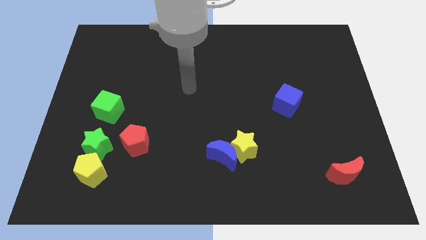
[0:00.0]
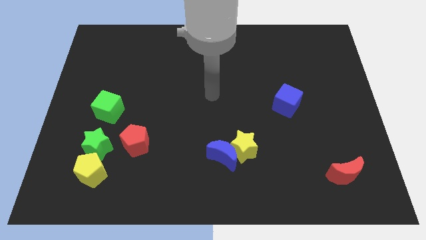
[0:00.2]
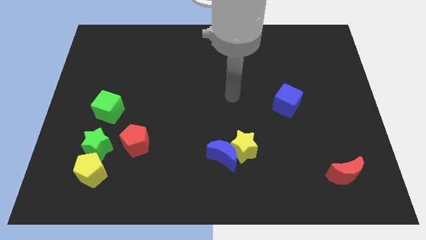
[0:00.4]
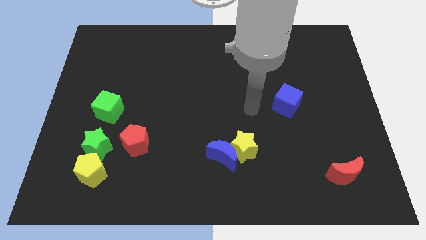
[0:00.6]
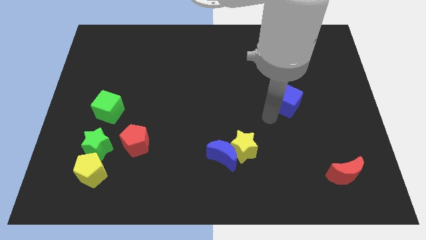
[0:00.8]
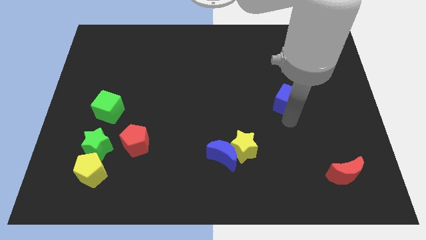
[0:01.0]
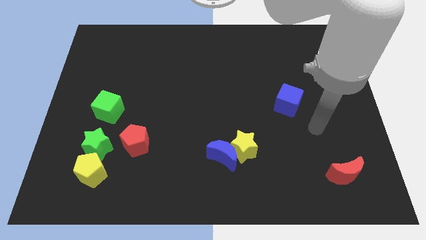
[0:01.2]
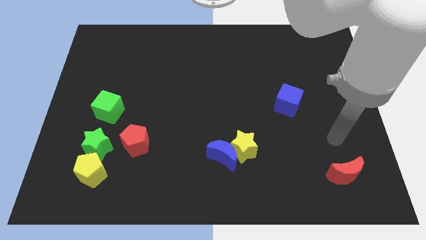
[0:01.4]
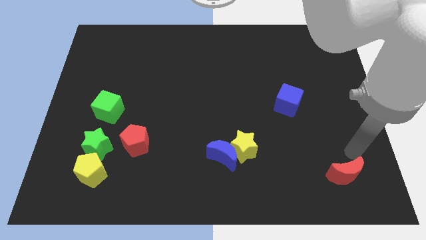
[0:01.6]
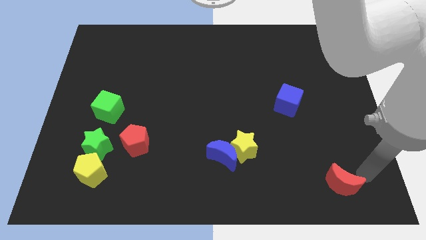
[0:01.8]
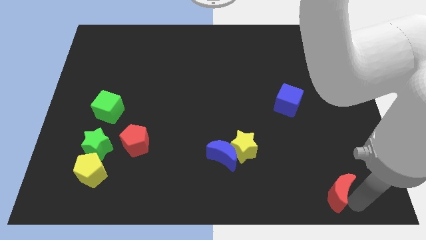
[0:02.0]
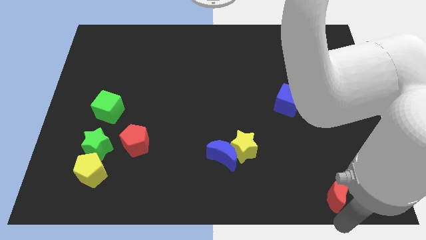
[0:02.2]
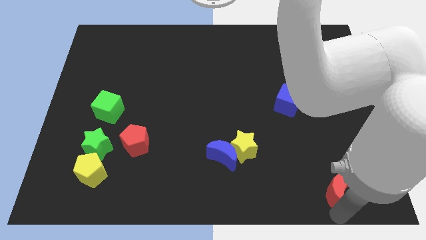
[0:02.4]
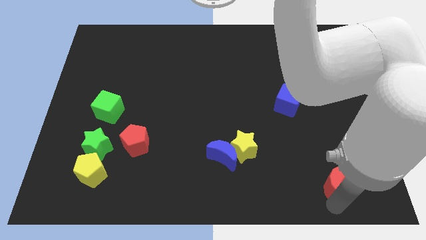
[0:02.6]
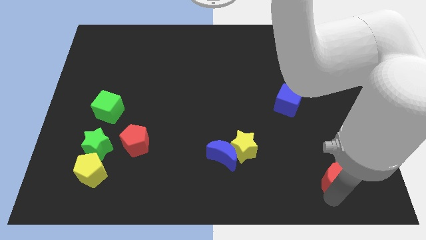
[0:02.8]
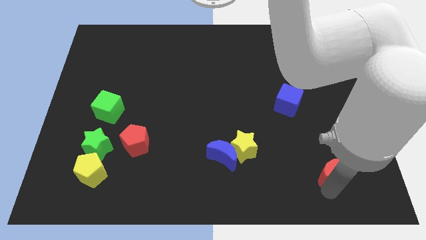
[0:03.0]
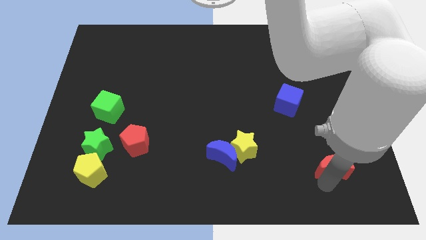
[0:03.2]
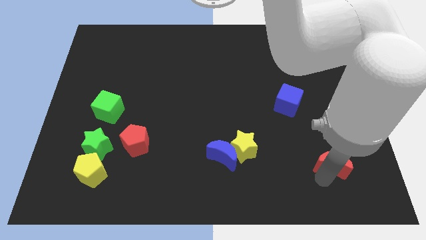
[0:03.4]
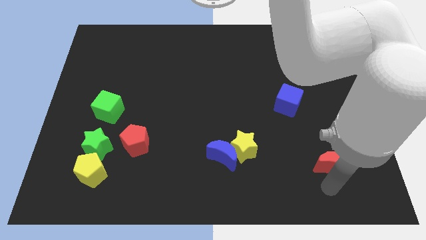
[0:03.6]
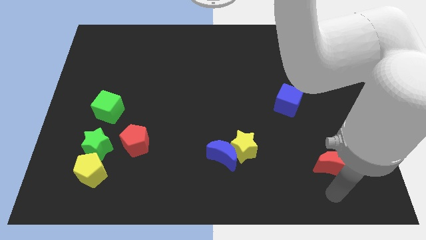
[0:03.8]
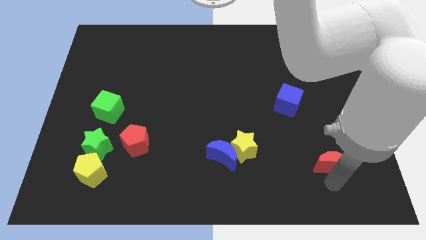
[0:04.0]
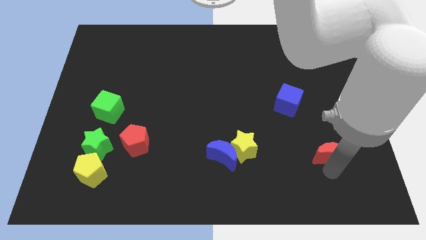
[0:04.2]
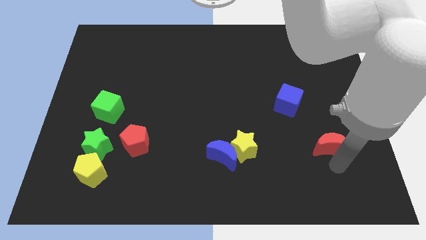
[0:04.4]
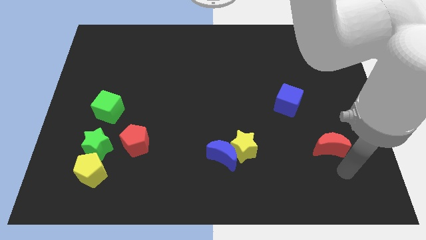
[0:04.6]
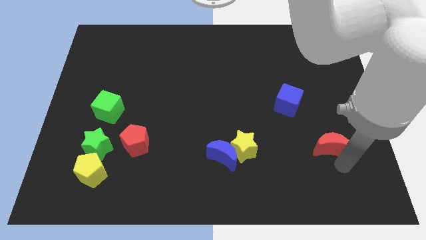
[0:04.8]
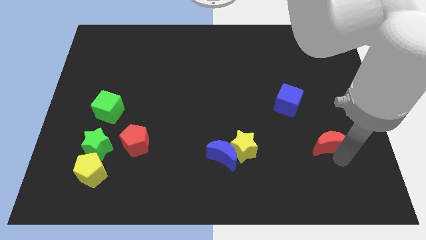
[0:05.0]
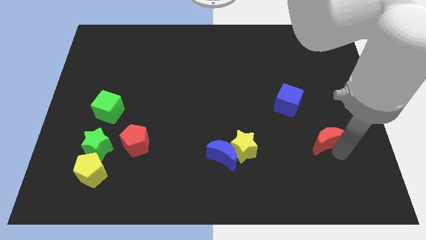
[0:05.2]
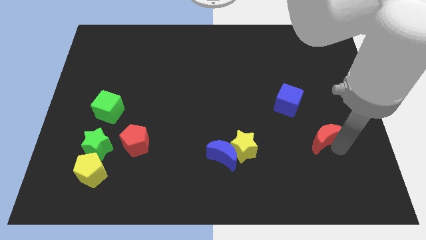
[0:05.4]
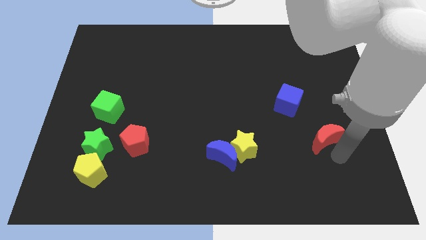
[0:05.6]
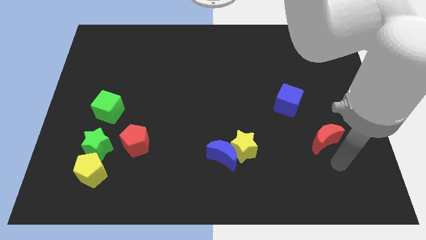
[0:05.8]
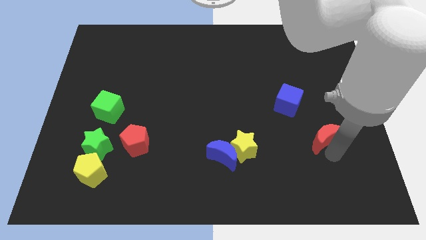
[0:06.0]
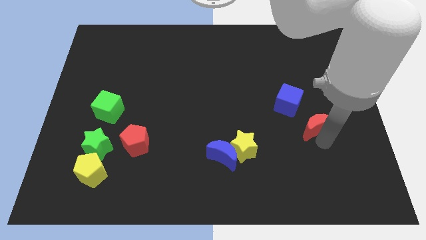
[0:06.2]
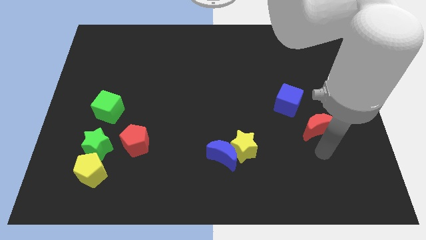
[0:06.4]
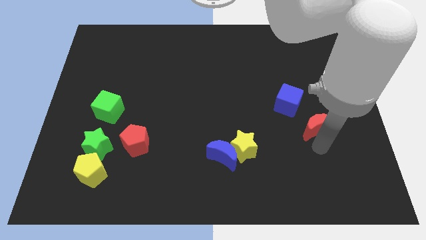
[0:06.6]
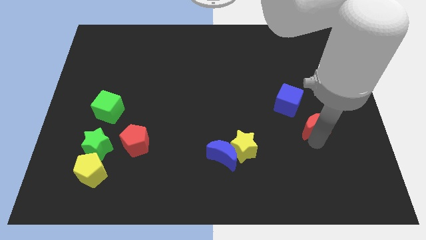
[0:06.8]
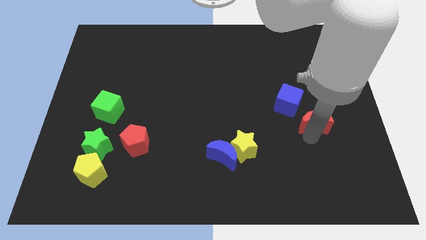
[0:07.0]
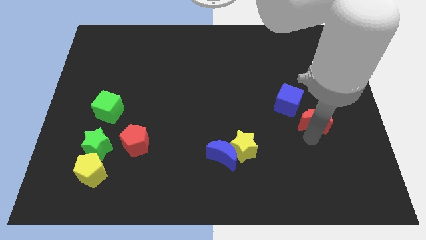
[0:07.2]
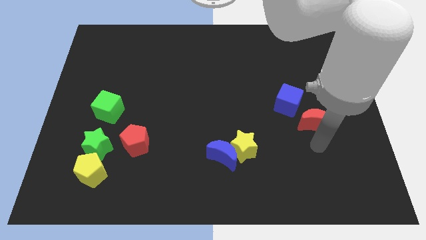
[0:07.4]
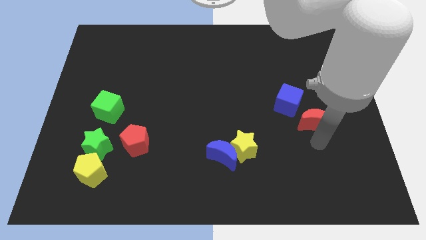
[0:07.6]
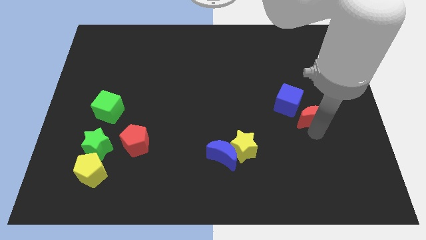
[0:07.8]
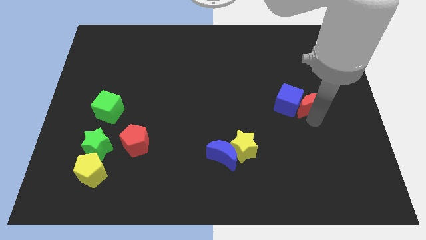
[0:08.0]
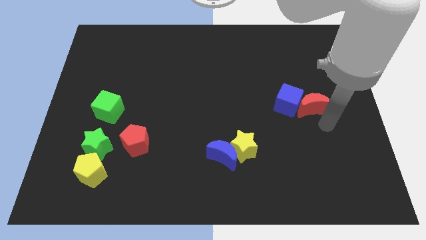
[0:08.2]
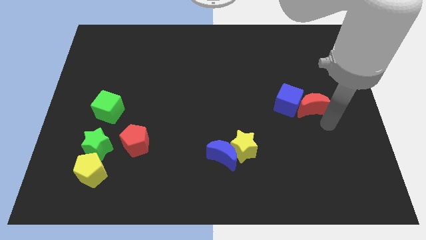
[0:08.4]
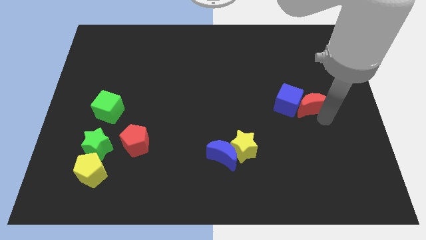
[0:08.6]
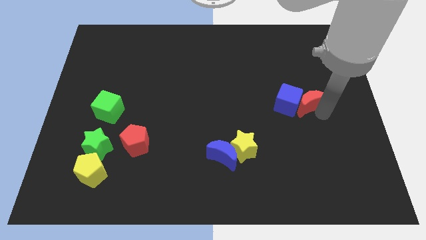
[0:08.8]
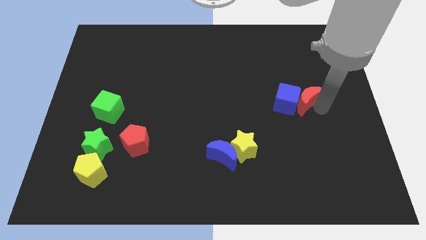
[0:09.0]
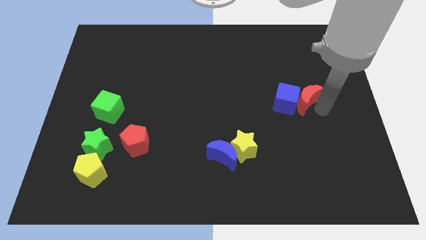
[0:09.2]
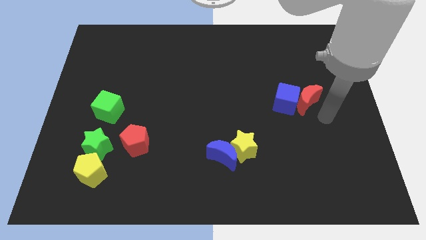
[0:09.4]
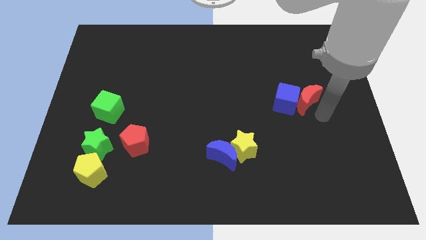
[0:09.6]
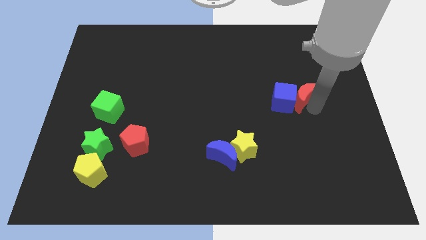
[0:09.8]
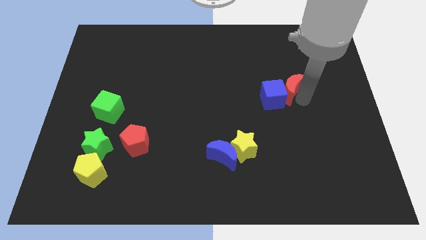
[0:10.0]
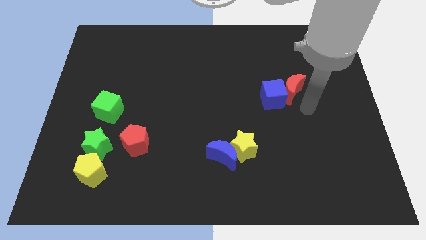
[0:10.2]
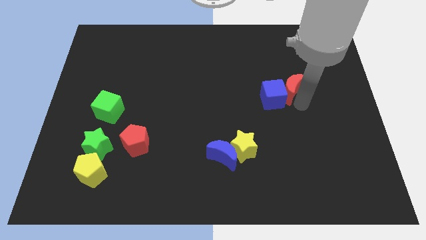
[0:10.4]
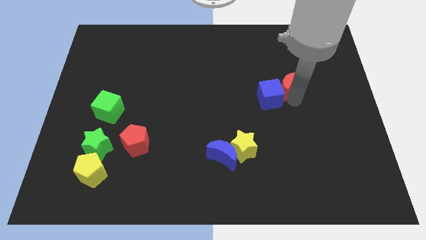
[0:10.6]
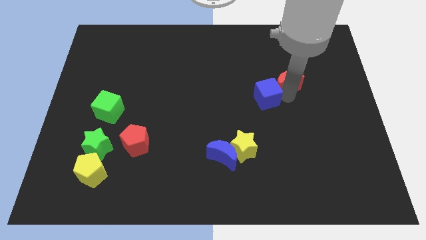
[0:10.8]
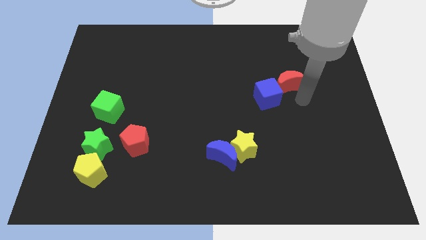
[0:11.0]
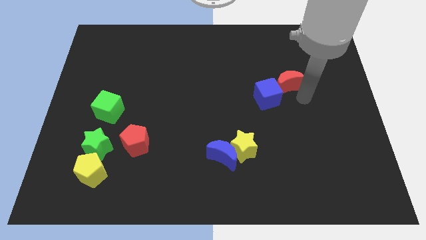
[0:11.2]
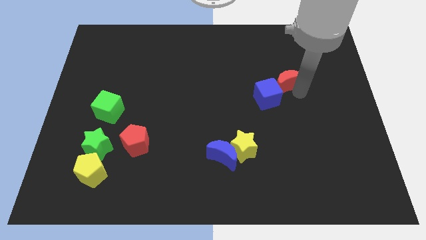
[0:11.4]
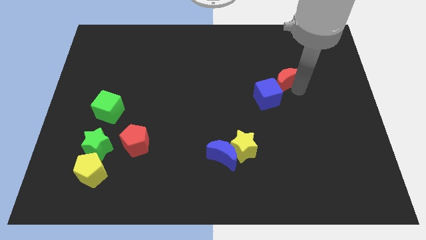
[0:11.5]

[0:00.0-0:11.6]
move the red moon above the blue cube

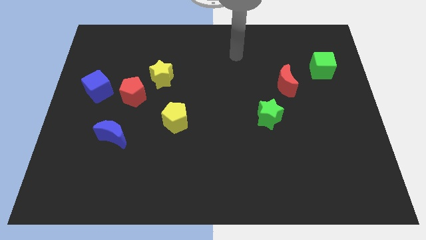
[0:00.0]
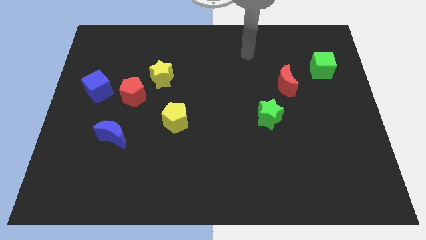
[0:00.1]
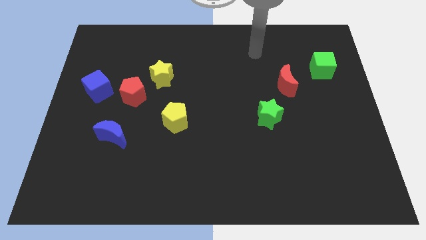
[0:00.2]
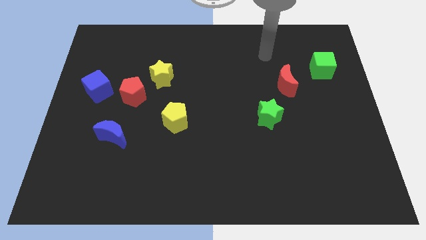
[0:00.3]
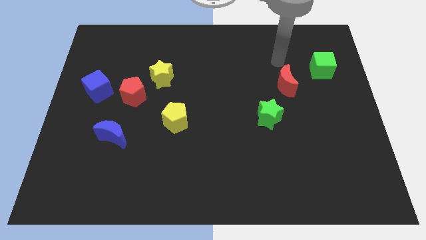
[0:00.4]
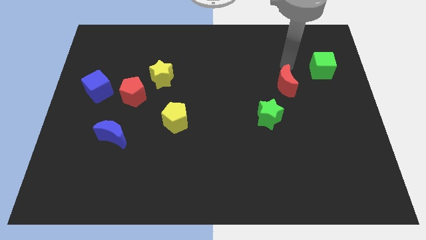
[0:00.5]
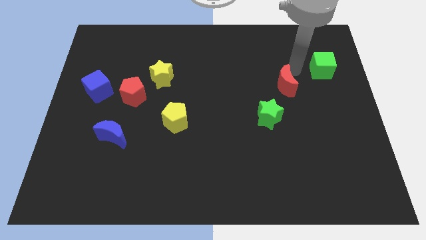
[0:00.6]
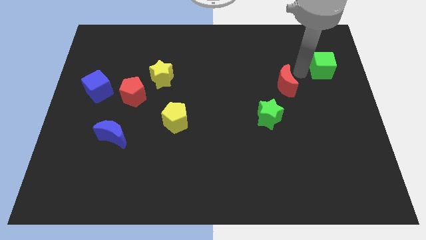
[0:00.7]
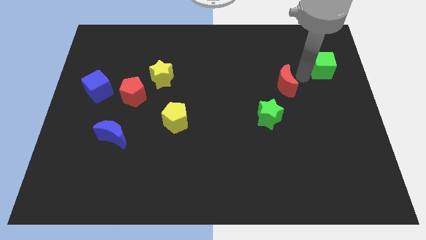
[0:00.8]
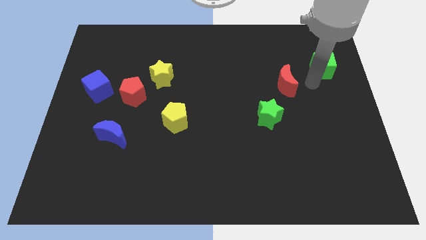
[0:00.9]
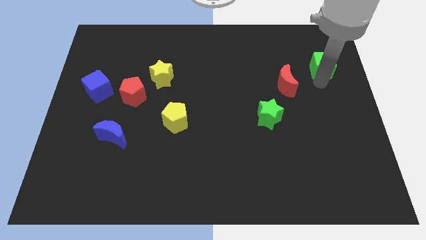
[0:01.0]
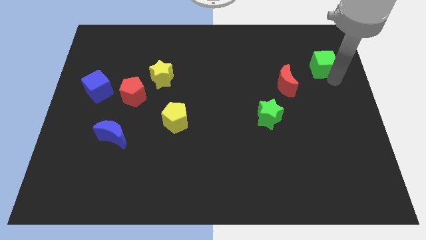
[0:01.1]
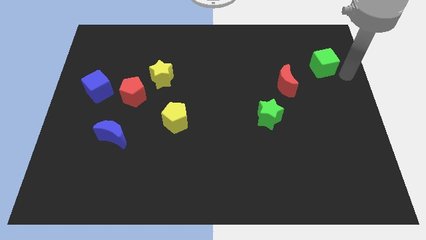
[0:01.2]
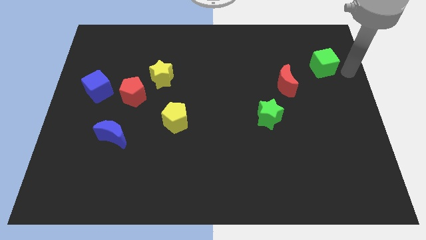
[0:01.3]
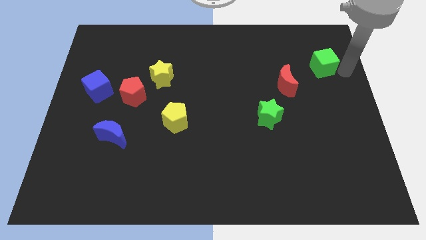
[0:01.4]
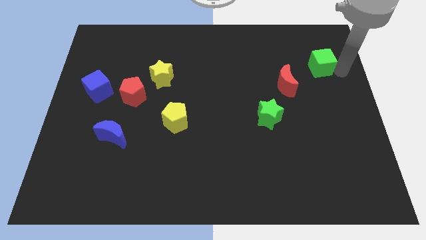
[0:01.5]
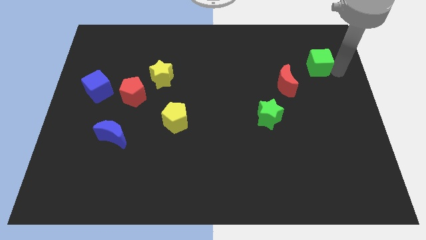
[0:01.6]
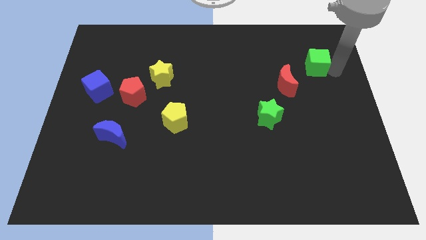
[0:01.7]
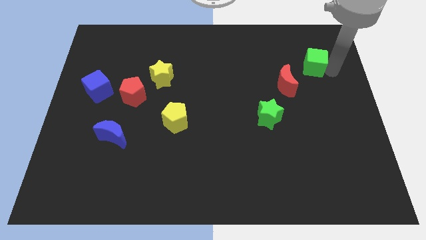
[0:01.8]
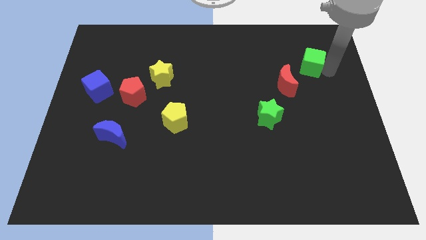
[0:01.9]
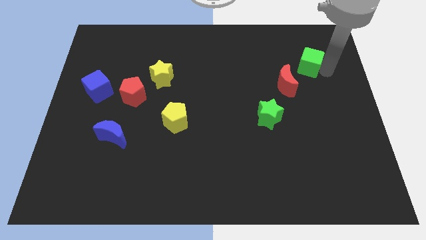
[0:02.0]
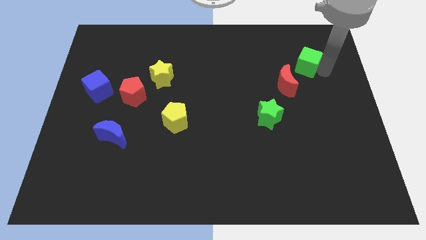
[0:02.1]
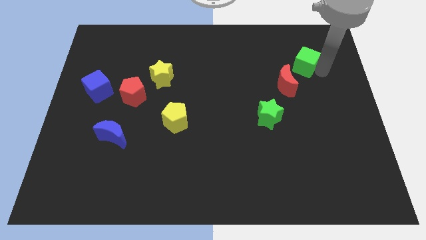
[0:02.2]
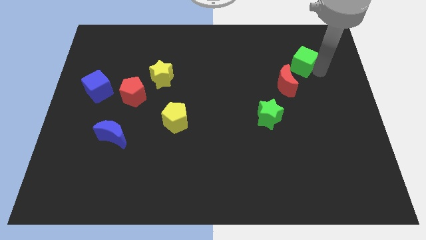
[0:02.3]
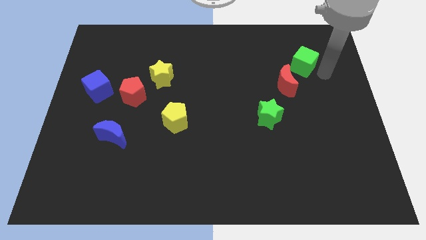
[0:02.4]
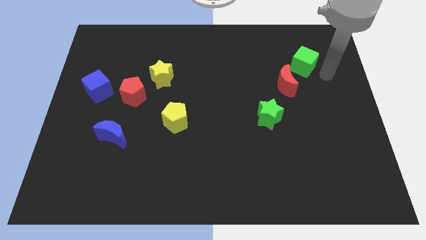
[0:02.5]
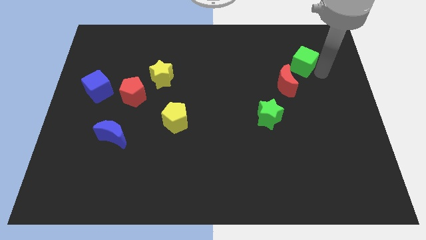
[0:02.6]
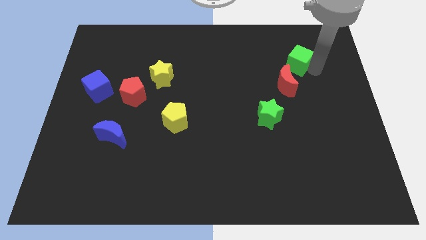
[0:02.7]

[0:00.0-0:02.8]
slide the green cube to the top side of the red moon
